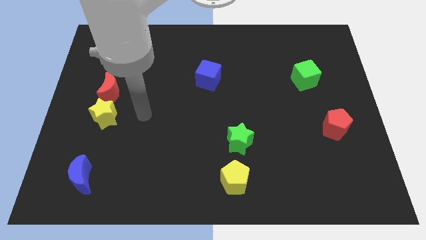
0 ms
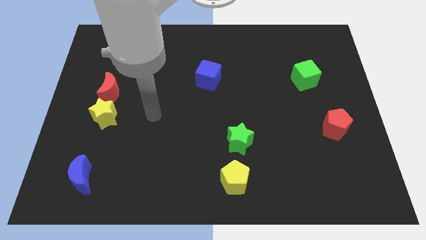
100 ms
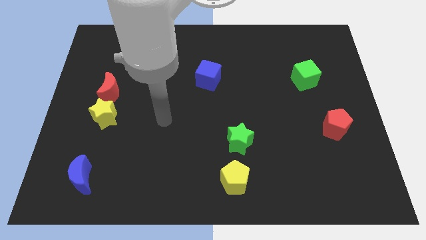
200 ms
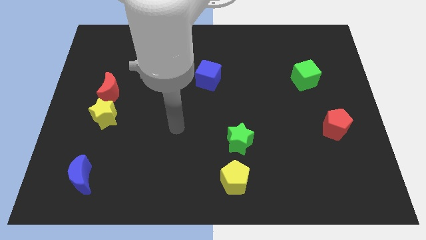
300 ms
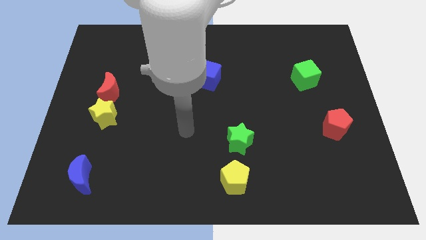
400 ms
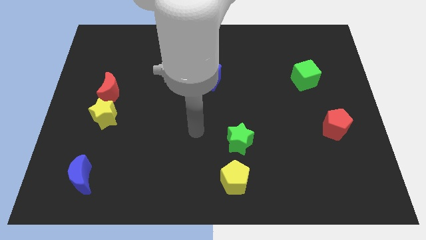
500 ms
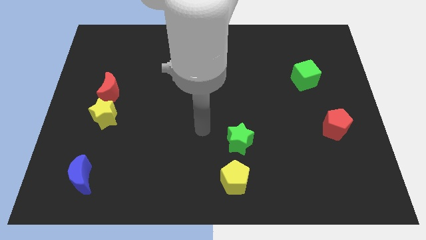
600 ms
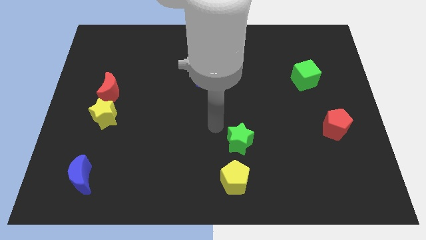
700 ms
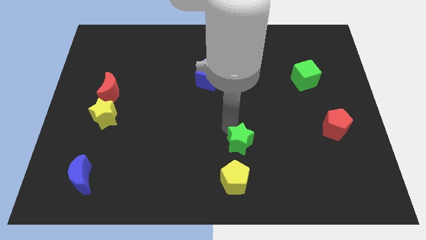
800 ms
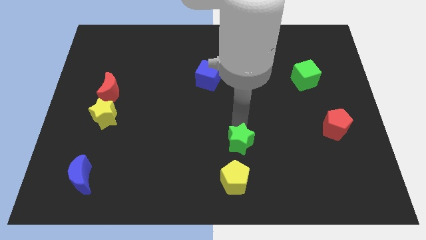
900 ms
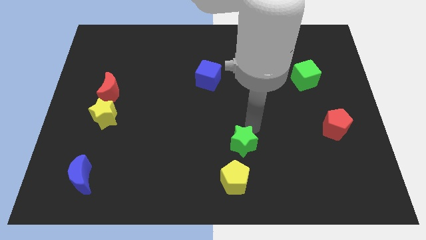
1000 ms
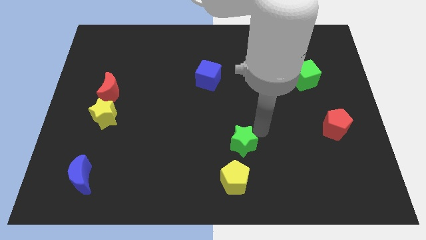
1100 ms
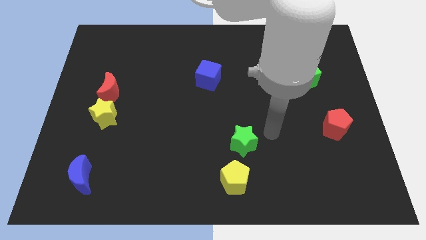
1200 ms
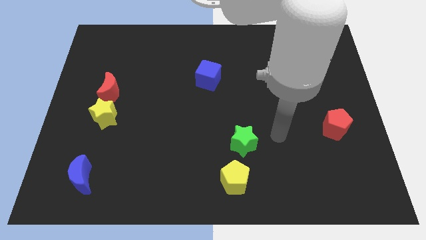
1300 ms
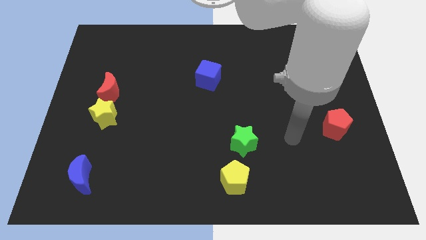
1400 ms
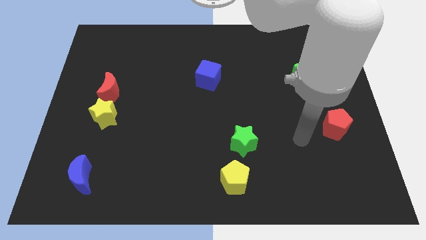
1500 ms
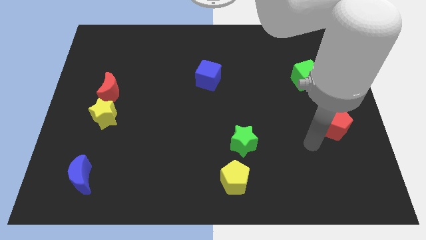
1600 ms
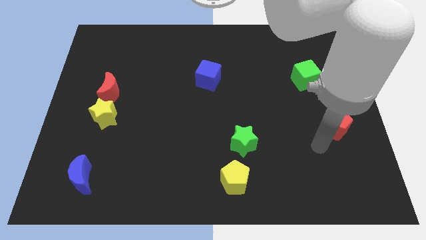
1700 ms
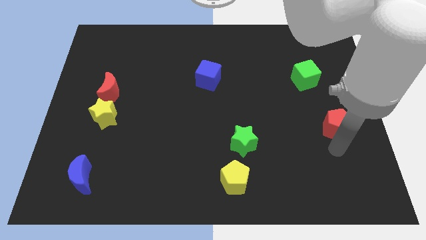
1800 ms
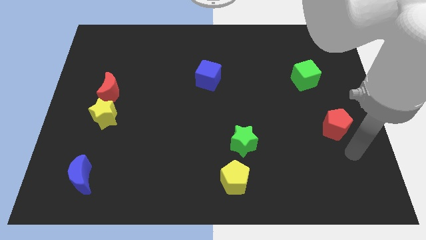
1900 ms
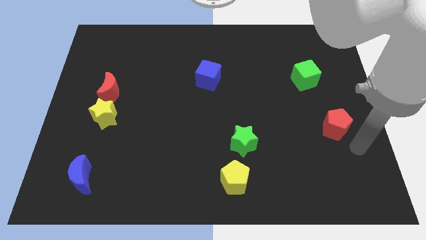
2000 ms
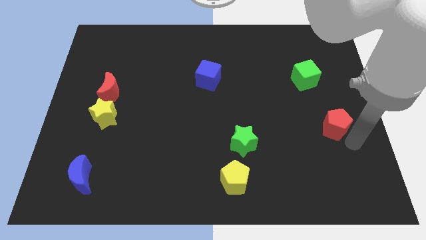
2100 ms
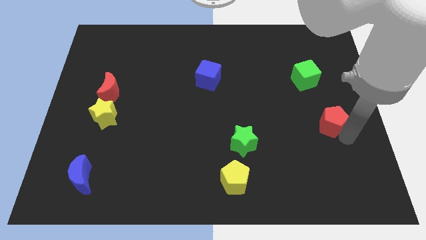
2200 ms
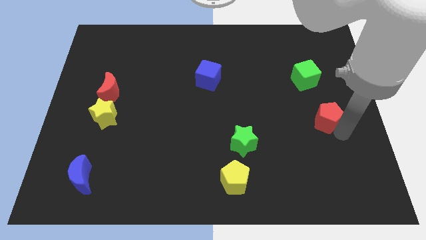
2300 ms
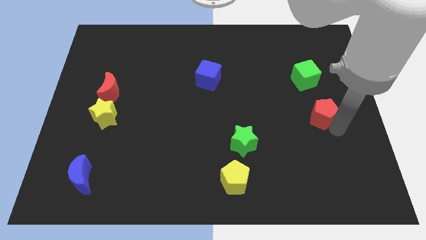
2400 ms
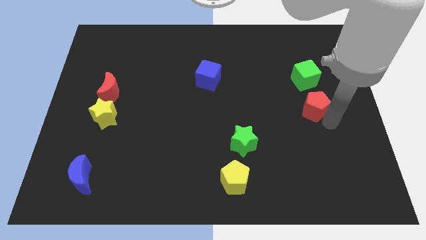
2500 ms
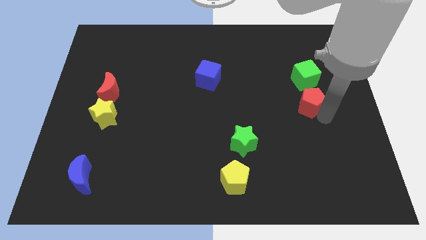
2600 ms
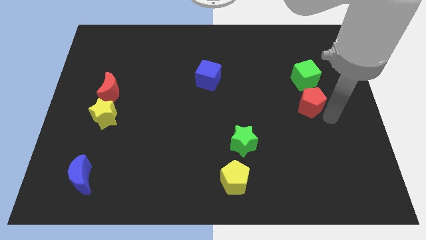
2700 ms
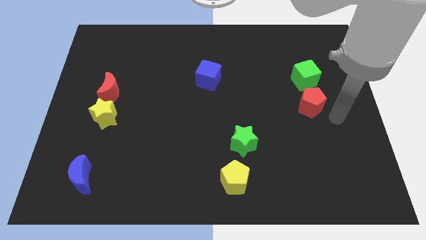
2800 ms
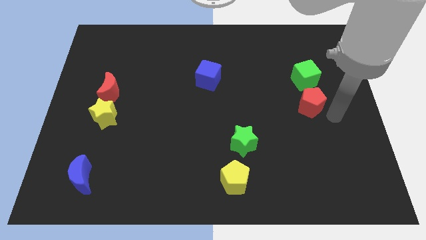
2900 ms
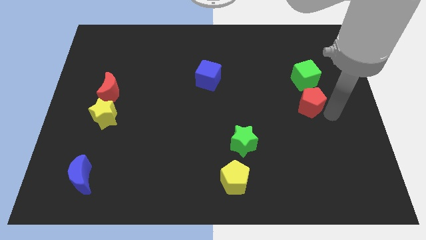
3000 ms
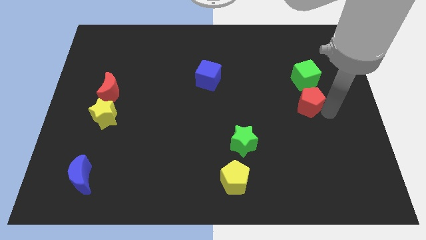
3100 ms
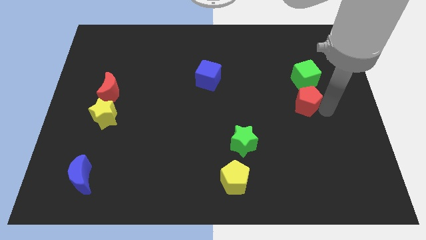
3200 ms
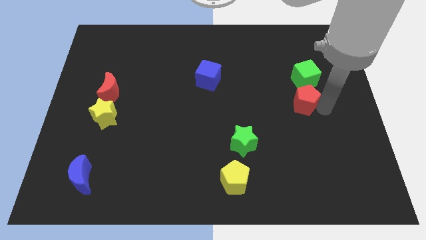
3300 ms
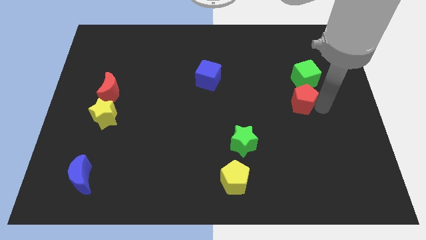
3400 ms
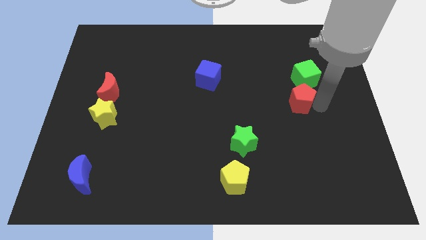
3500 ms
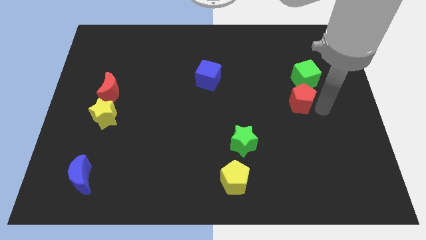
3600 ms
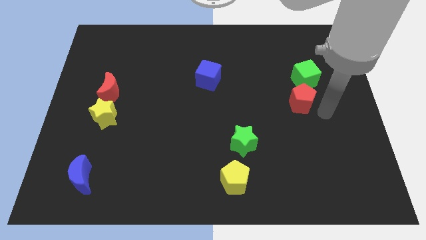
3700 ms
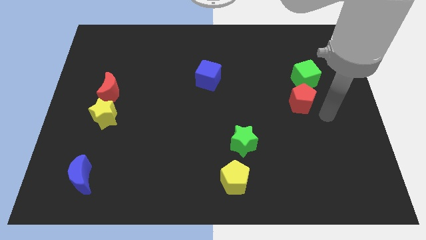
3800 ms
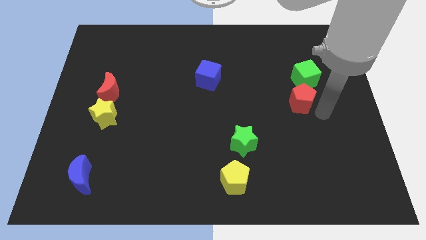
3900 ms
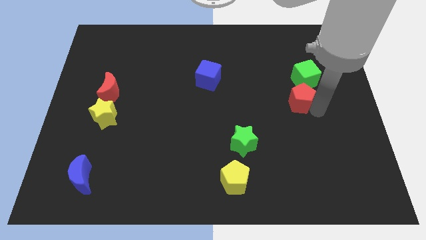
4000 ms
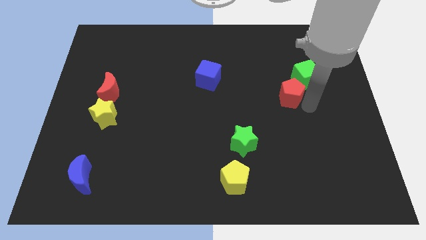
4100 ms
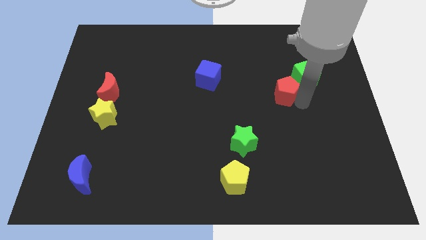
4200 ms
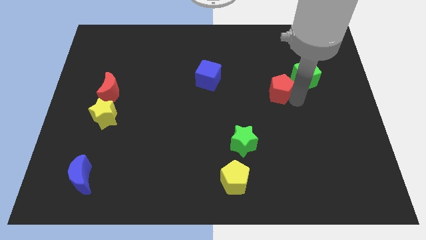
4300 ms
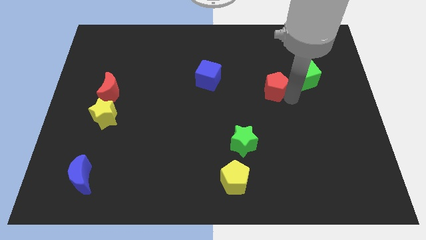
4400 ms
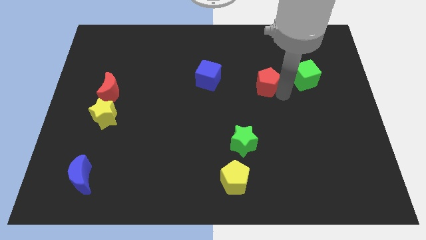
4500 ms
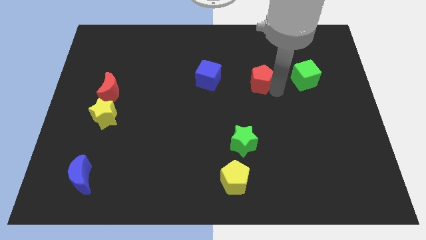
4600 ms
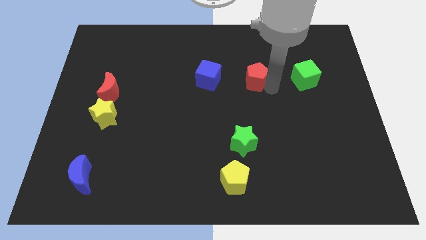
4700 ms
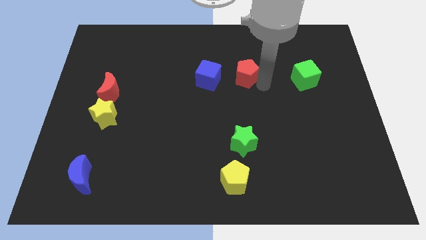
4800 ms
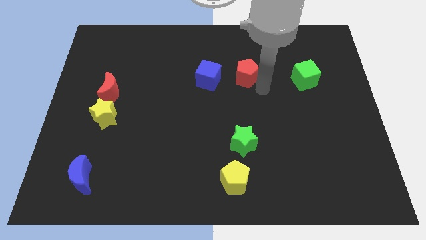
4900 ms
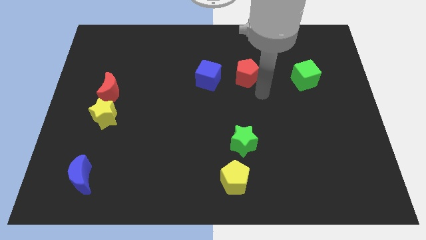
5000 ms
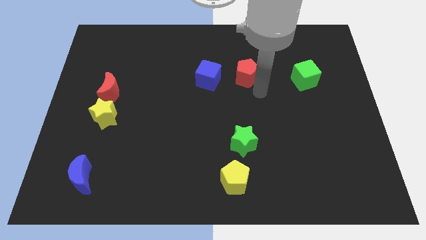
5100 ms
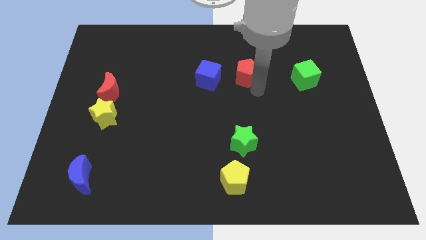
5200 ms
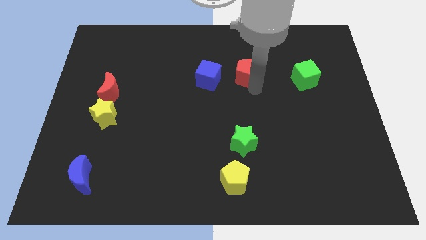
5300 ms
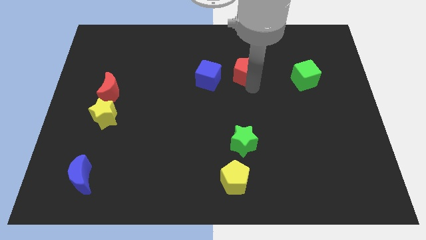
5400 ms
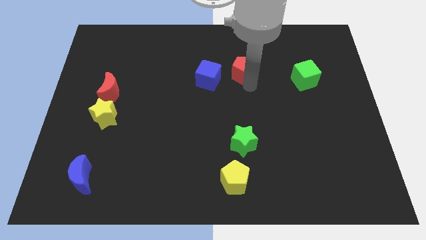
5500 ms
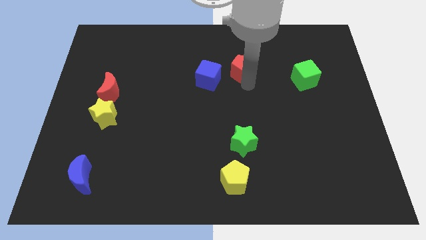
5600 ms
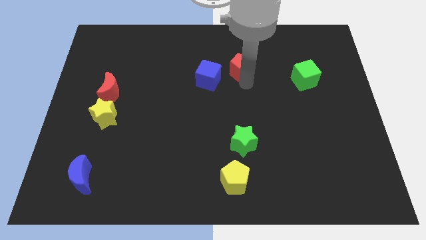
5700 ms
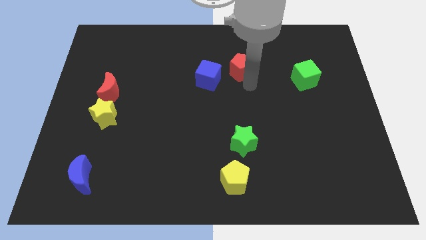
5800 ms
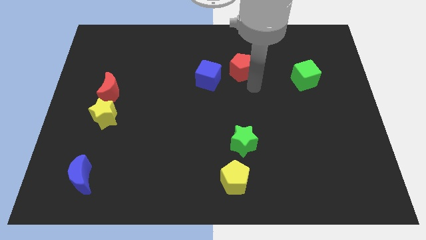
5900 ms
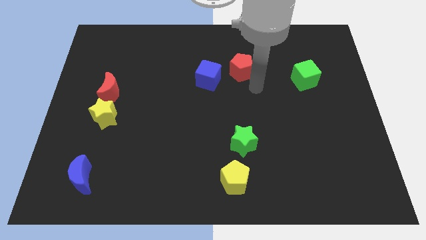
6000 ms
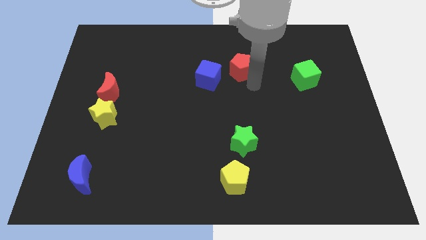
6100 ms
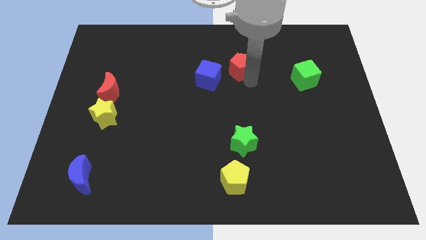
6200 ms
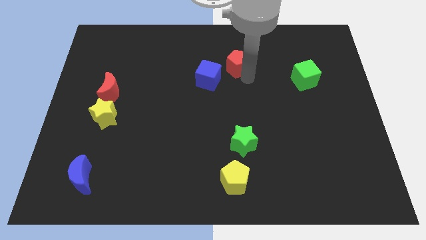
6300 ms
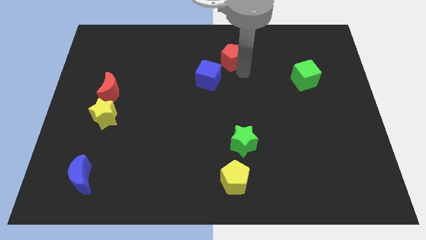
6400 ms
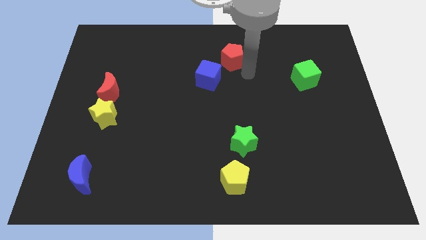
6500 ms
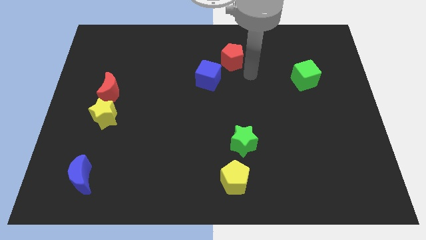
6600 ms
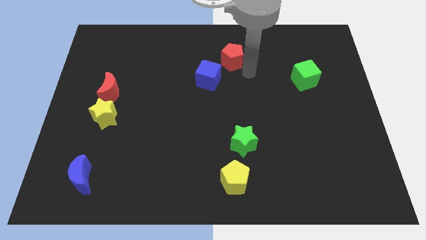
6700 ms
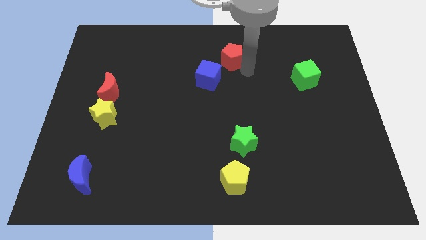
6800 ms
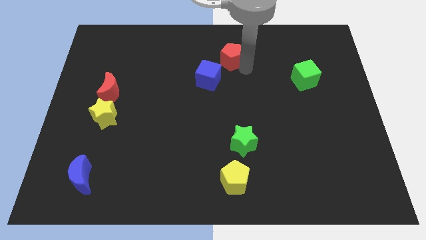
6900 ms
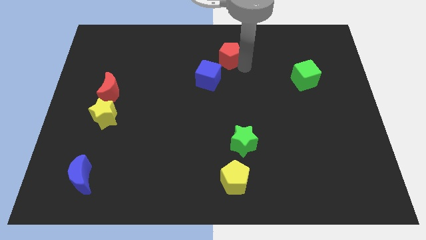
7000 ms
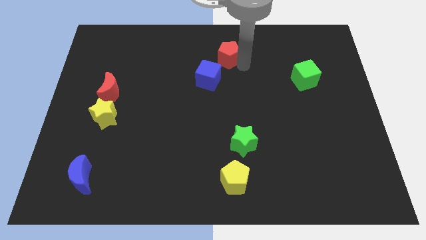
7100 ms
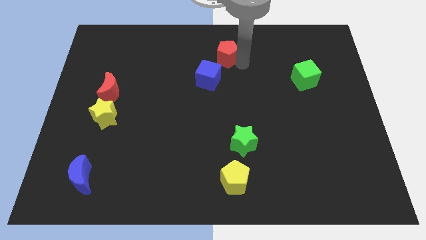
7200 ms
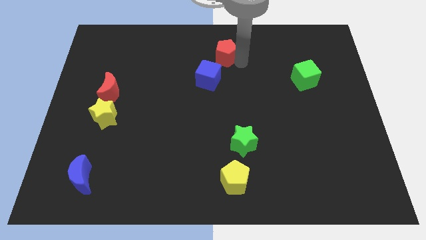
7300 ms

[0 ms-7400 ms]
slide the red pentagon to the top
